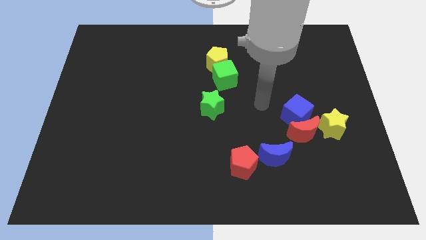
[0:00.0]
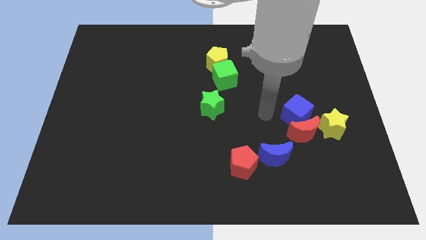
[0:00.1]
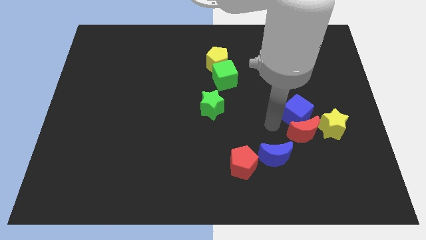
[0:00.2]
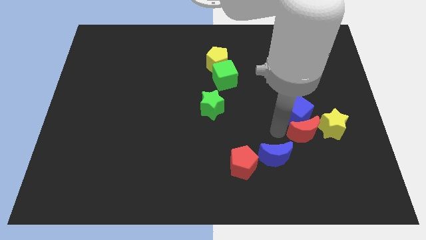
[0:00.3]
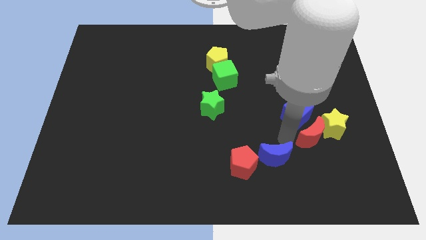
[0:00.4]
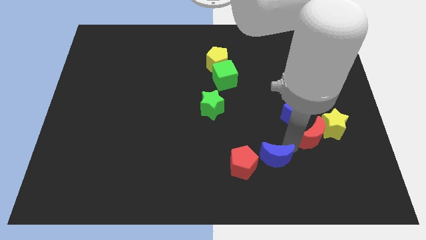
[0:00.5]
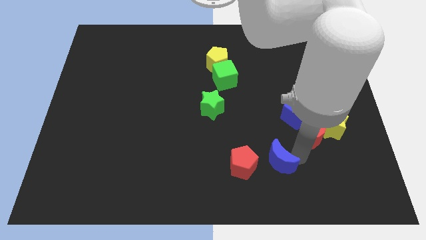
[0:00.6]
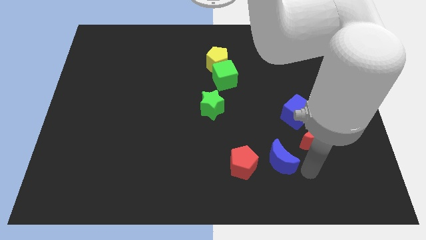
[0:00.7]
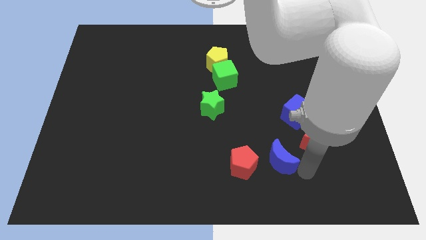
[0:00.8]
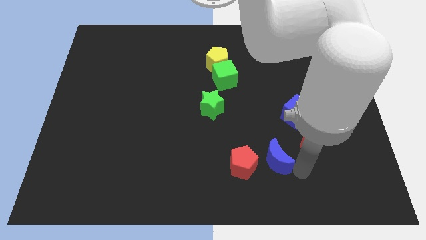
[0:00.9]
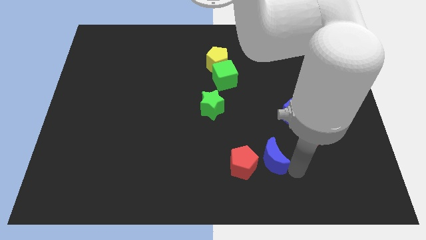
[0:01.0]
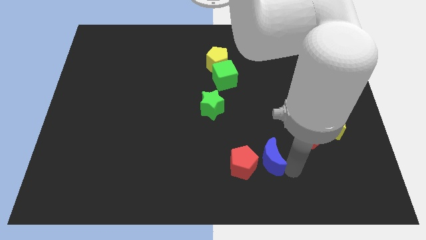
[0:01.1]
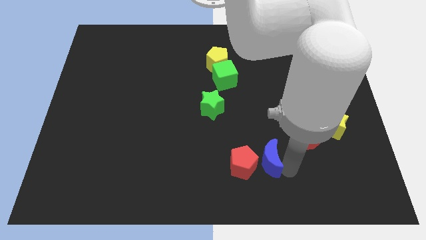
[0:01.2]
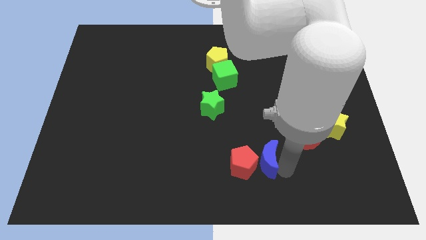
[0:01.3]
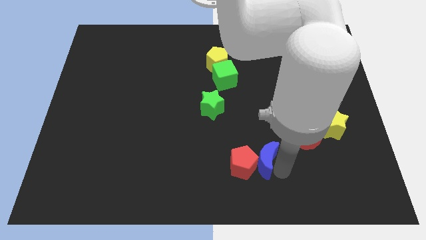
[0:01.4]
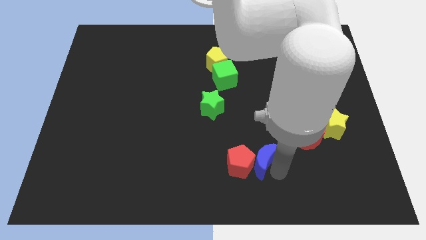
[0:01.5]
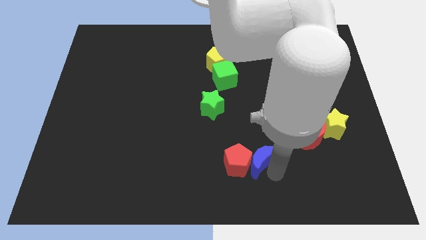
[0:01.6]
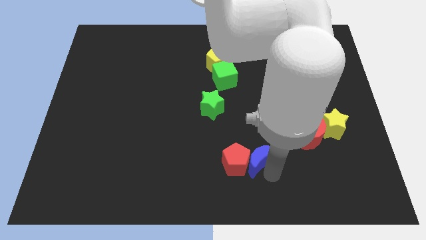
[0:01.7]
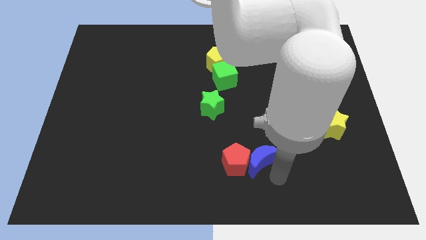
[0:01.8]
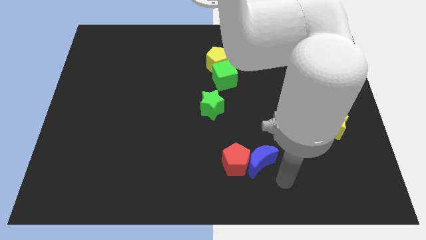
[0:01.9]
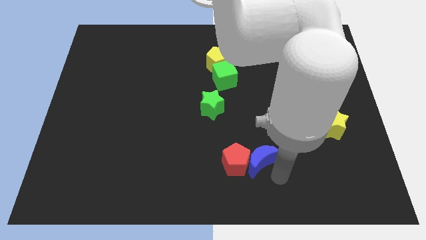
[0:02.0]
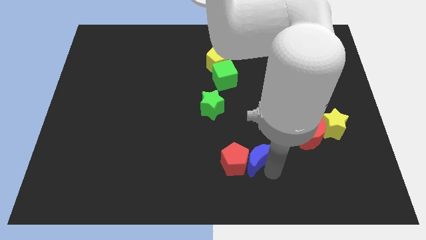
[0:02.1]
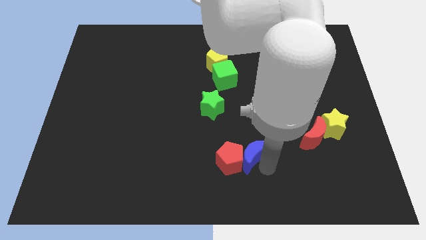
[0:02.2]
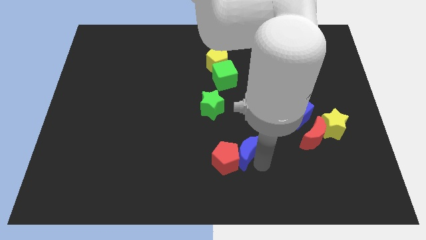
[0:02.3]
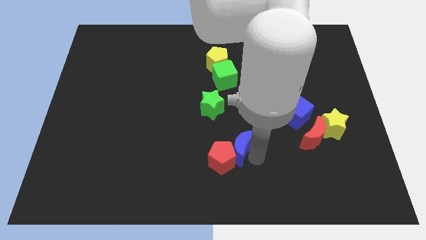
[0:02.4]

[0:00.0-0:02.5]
slightly move the blue moon to the left

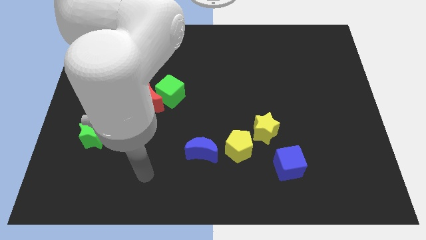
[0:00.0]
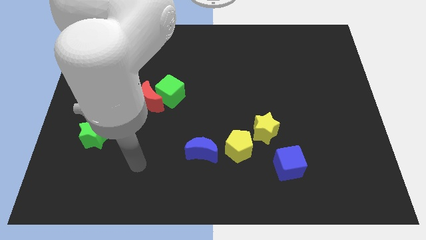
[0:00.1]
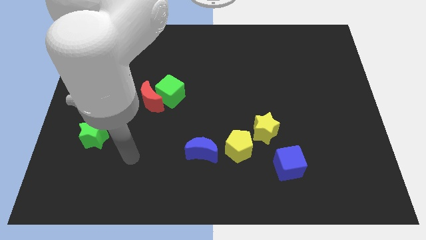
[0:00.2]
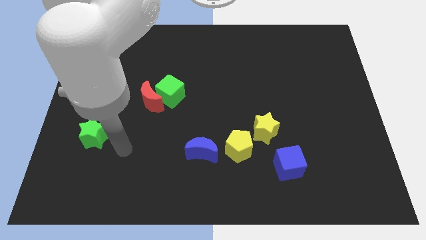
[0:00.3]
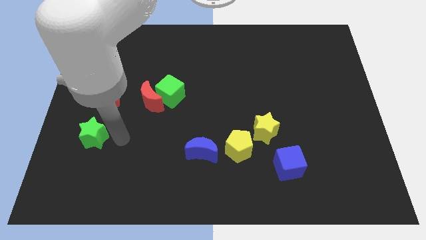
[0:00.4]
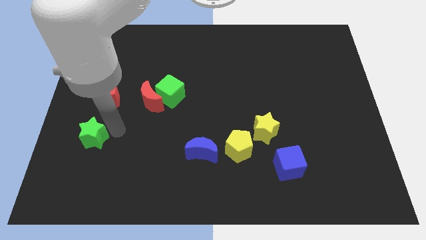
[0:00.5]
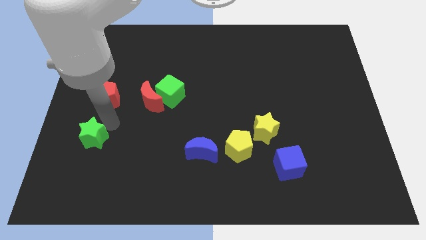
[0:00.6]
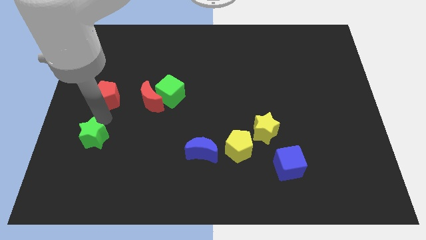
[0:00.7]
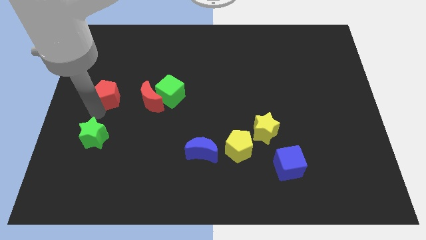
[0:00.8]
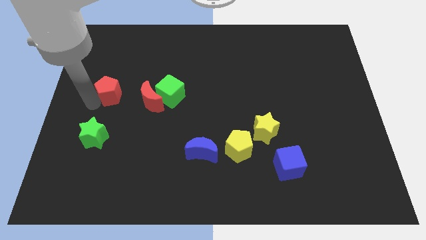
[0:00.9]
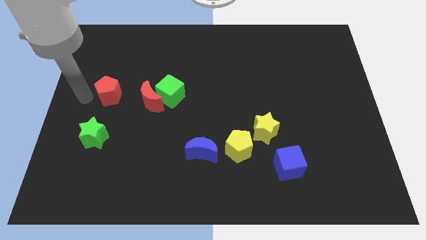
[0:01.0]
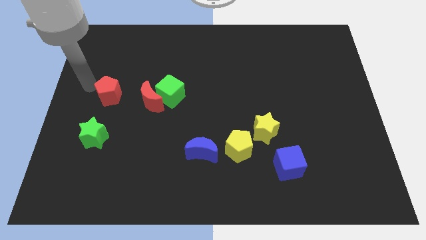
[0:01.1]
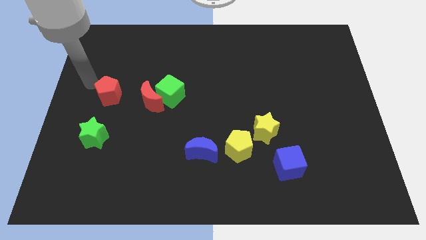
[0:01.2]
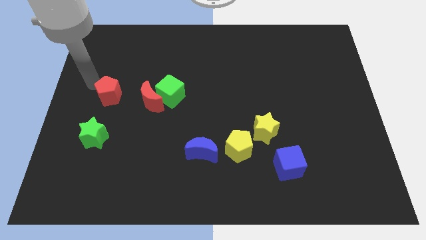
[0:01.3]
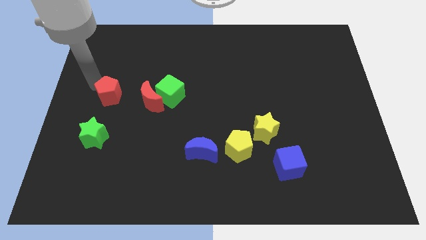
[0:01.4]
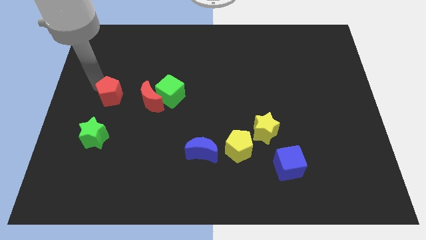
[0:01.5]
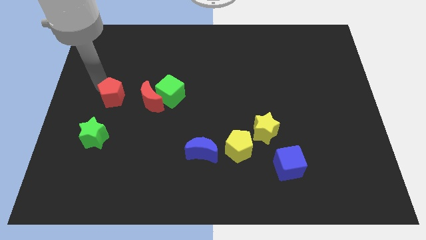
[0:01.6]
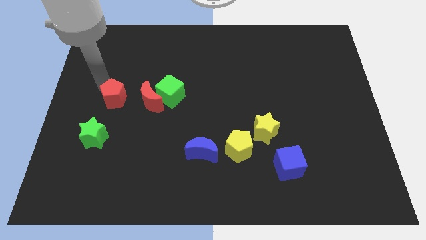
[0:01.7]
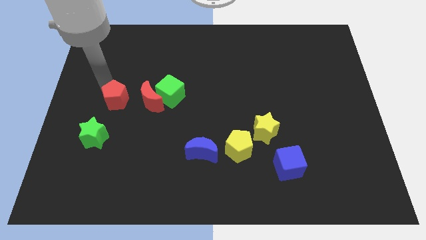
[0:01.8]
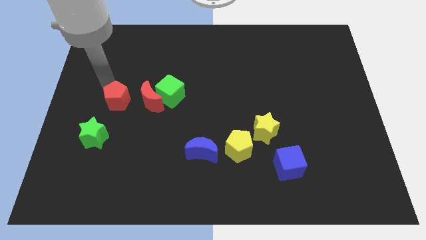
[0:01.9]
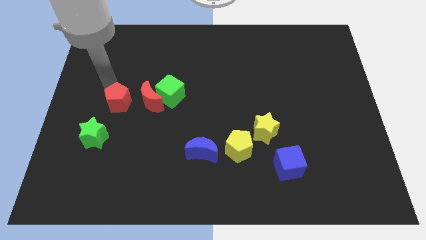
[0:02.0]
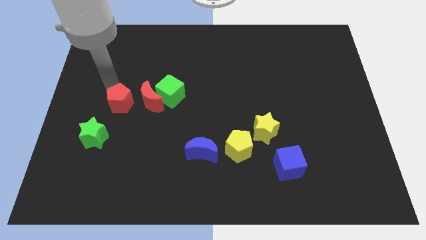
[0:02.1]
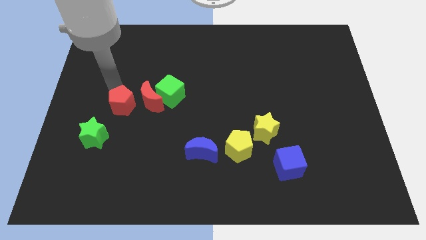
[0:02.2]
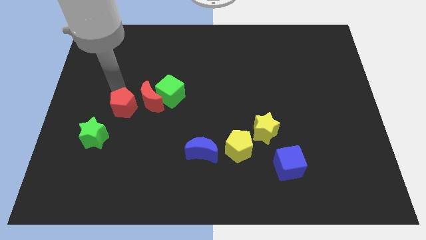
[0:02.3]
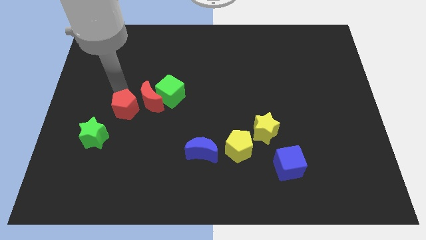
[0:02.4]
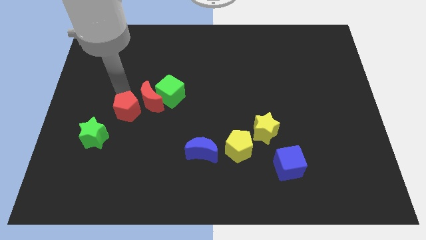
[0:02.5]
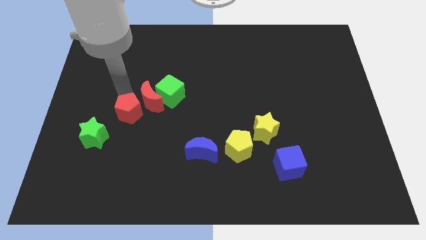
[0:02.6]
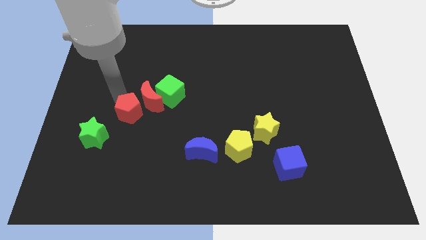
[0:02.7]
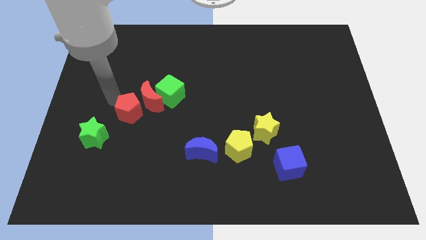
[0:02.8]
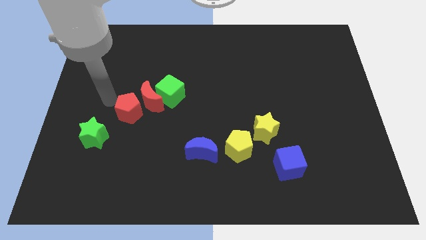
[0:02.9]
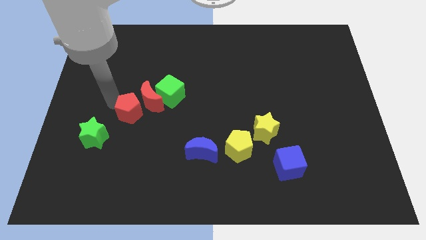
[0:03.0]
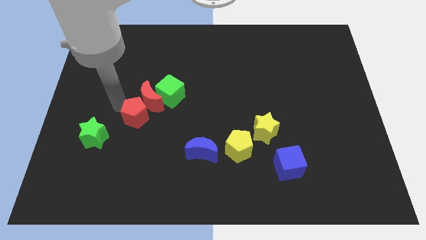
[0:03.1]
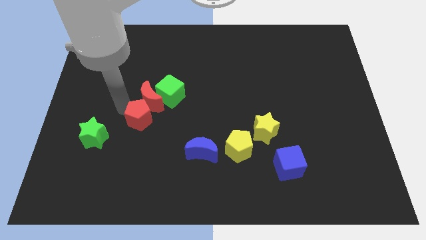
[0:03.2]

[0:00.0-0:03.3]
move the red pentagon a little bit right

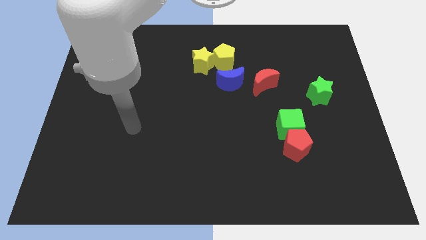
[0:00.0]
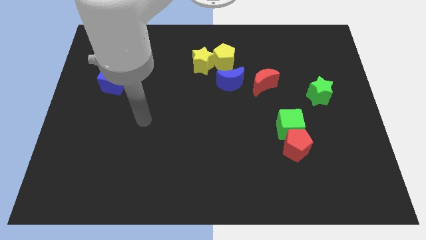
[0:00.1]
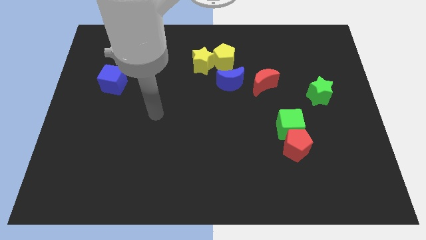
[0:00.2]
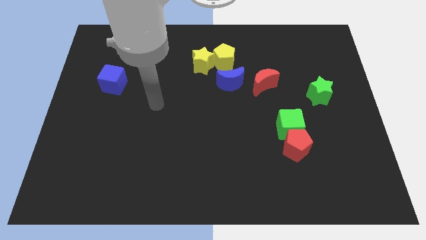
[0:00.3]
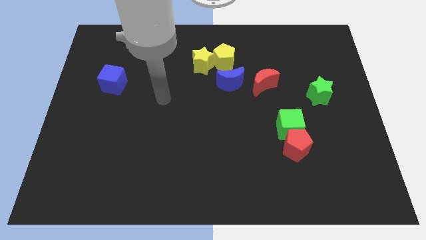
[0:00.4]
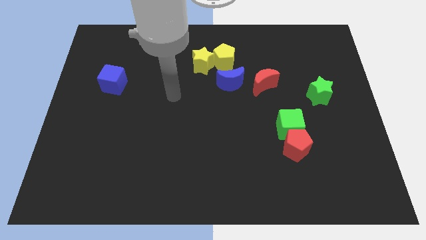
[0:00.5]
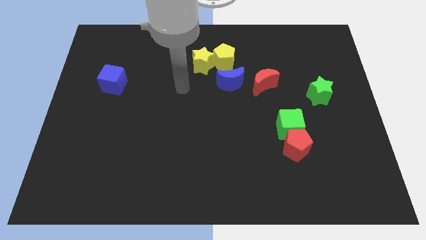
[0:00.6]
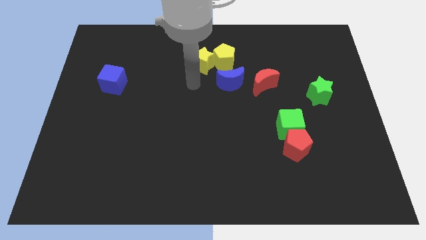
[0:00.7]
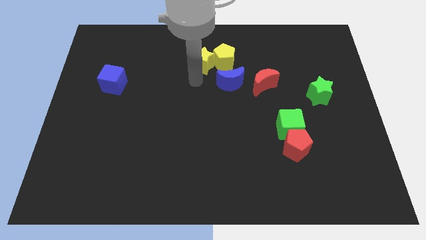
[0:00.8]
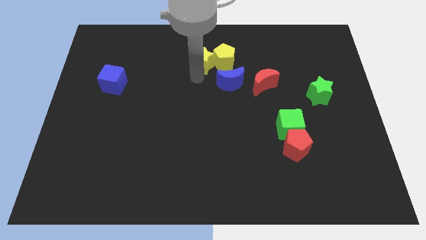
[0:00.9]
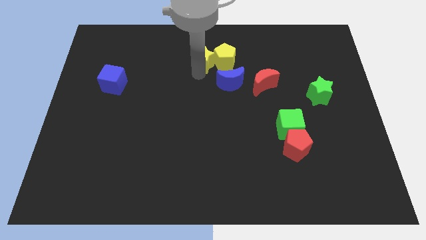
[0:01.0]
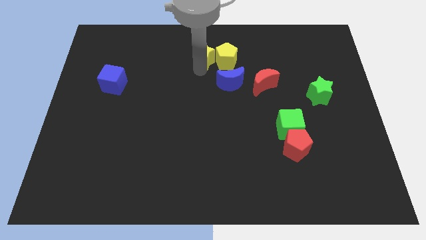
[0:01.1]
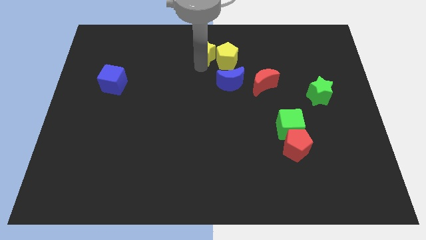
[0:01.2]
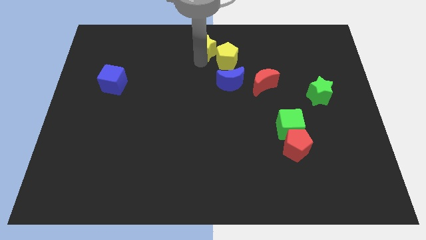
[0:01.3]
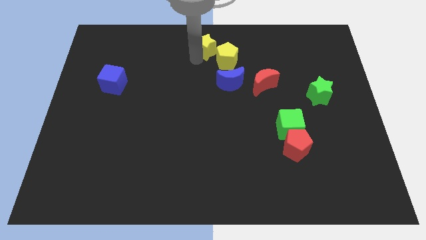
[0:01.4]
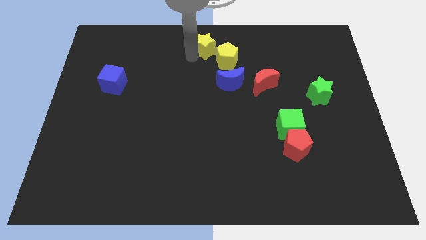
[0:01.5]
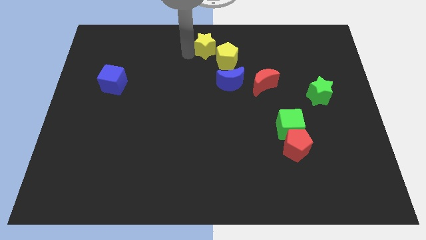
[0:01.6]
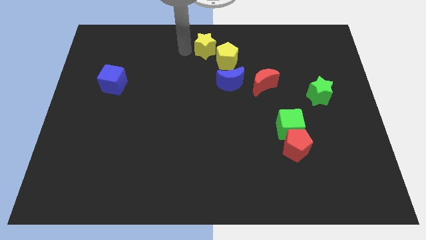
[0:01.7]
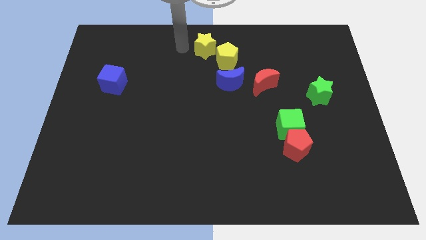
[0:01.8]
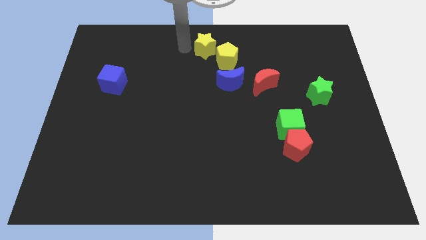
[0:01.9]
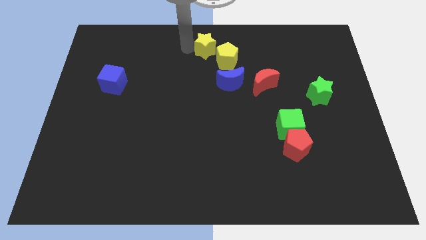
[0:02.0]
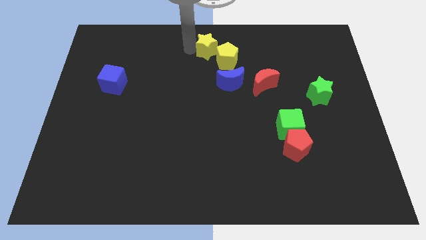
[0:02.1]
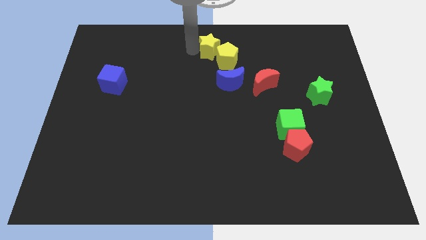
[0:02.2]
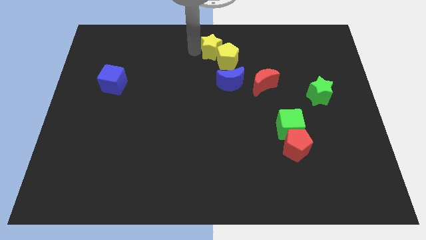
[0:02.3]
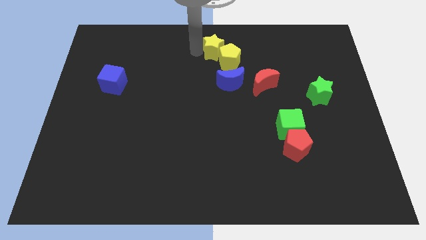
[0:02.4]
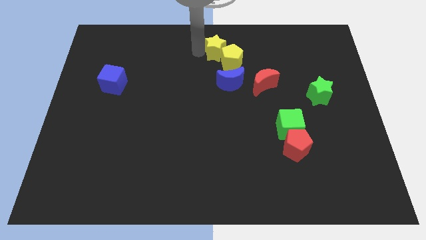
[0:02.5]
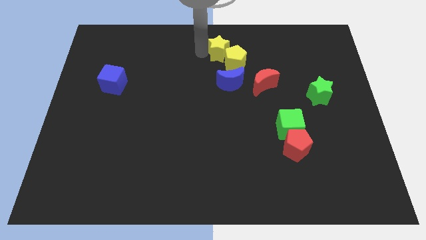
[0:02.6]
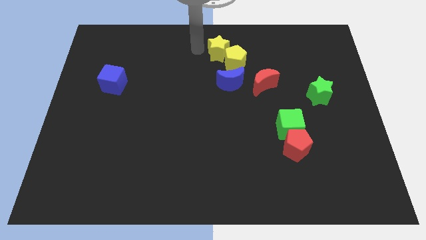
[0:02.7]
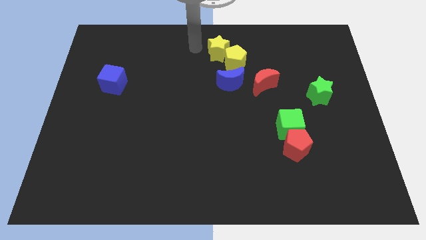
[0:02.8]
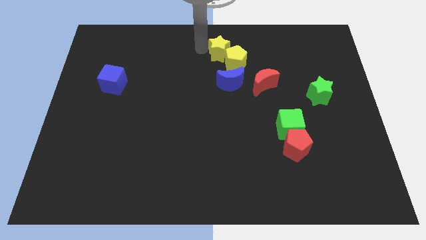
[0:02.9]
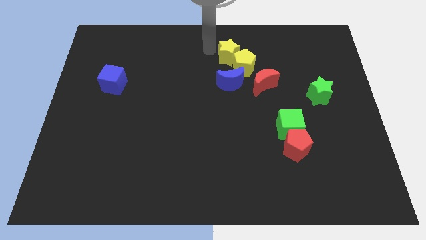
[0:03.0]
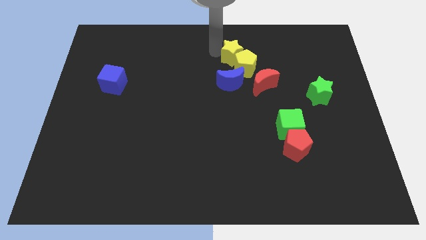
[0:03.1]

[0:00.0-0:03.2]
slightly move the yellow star right
